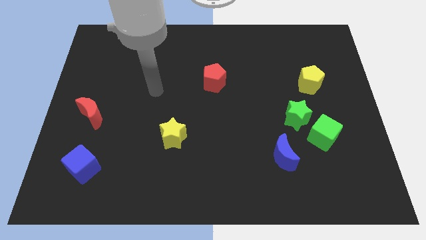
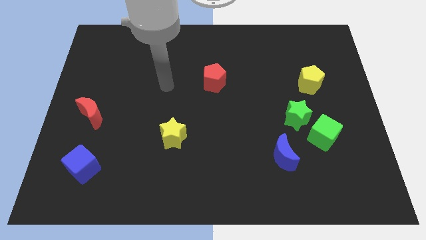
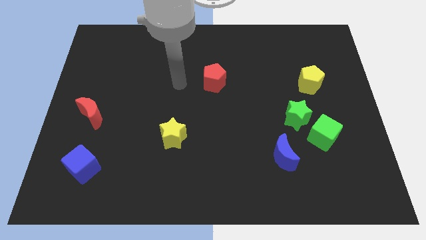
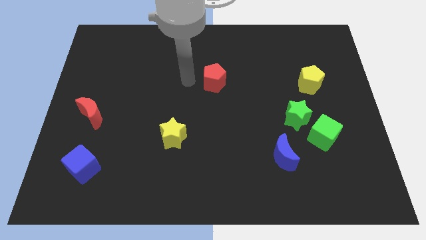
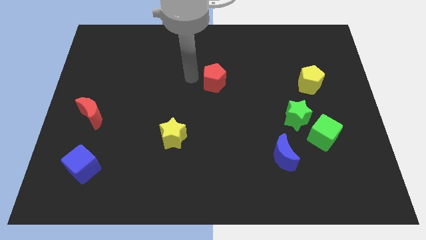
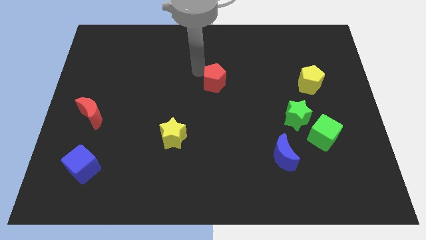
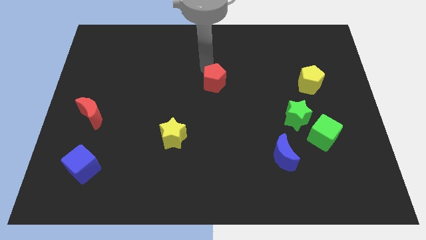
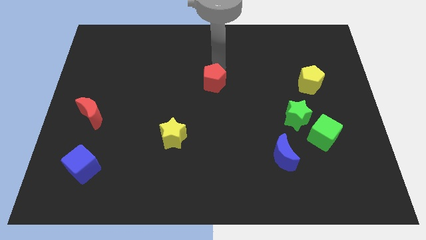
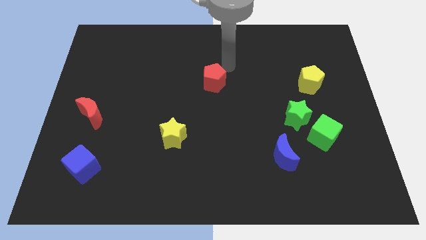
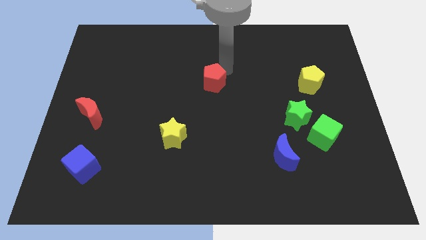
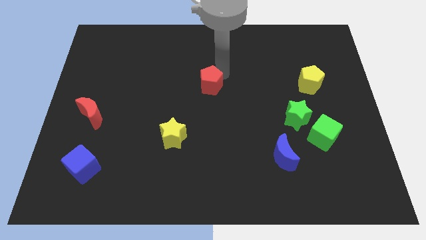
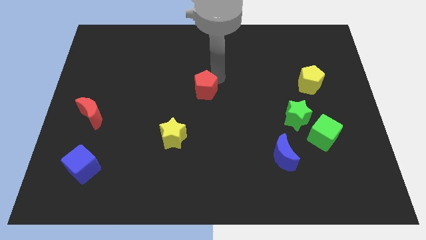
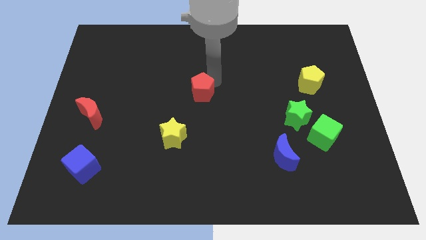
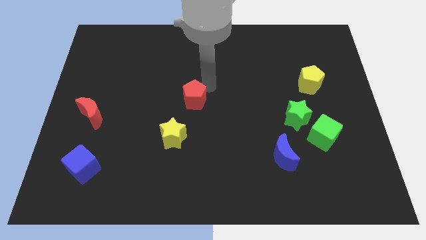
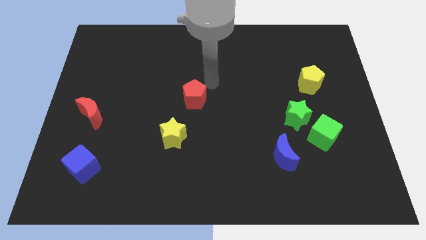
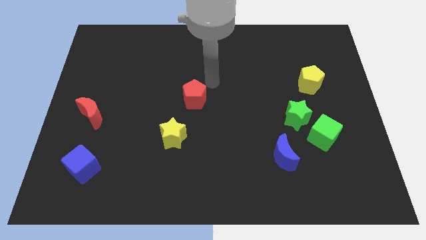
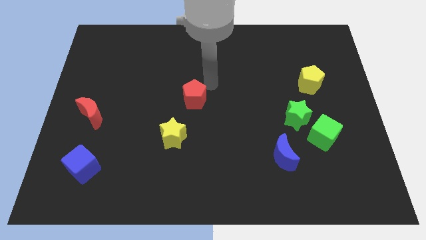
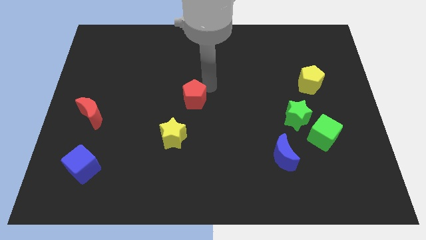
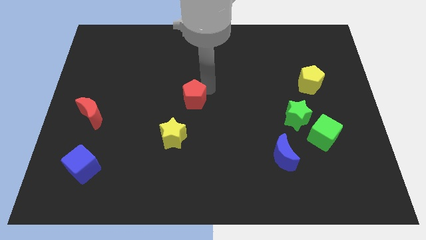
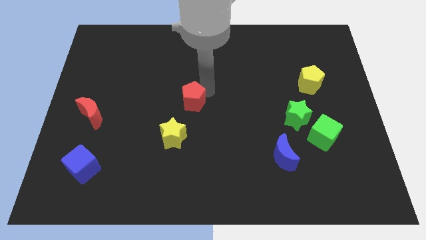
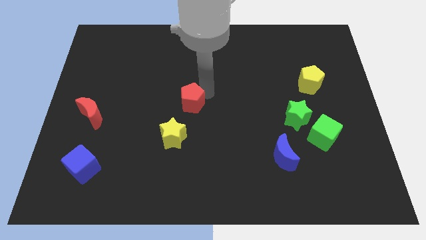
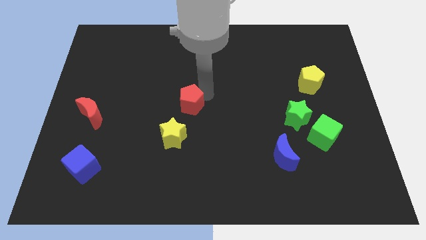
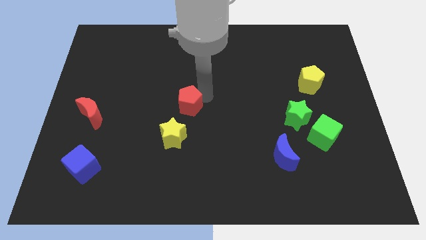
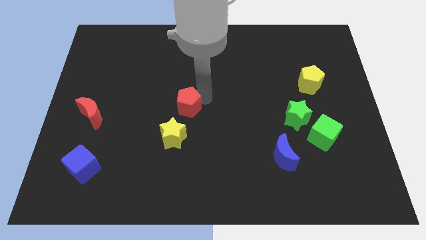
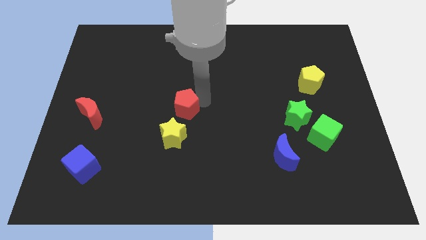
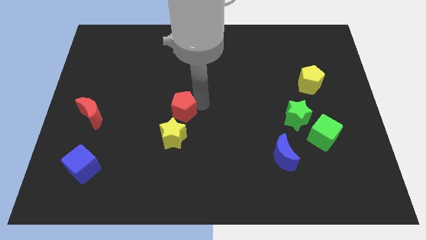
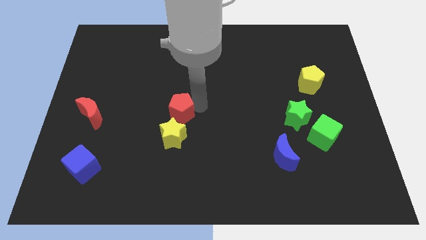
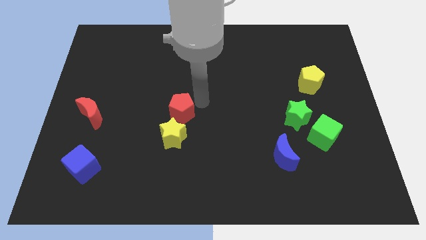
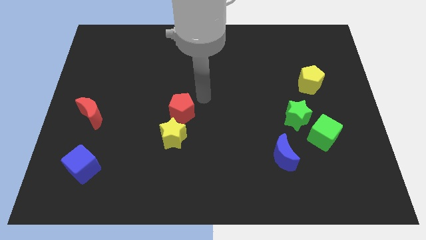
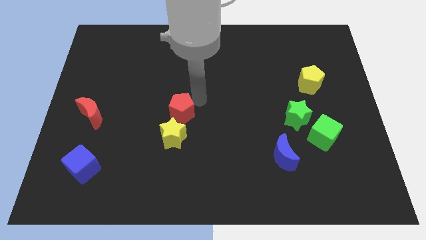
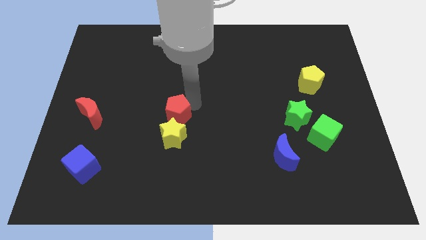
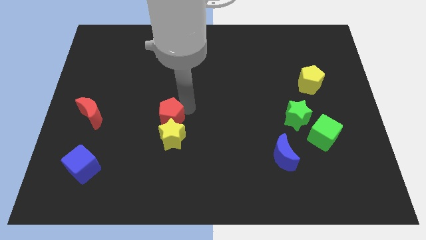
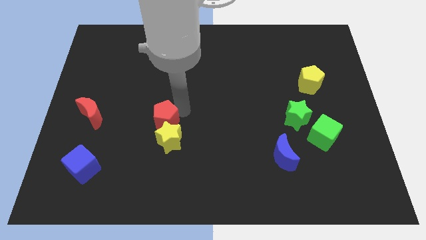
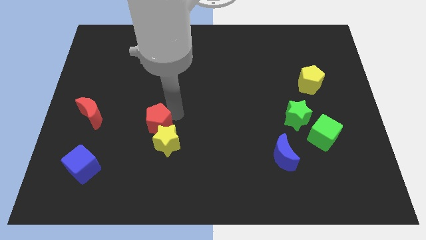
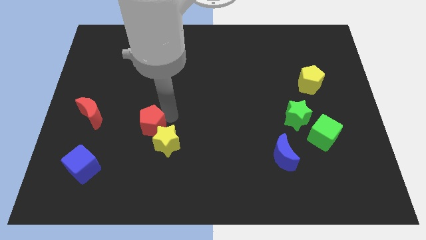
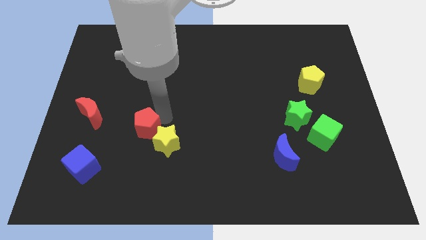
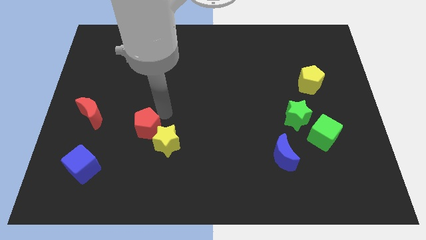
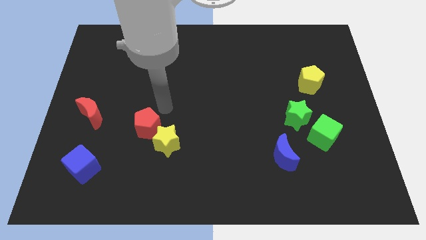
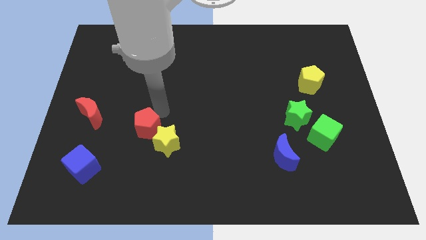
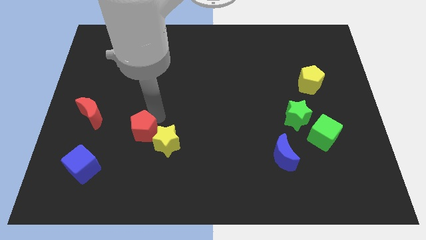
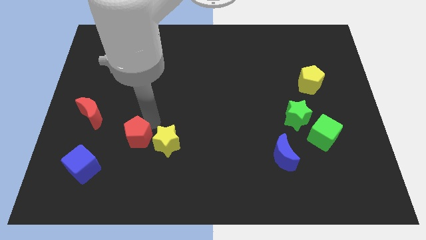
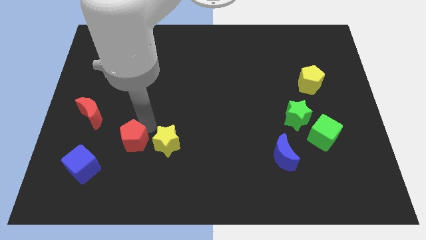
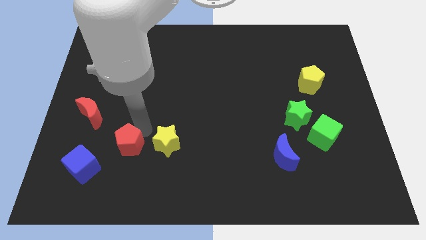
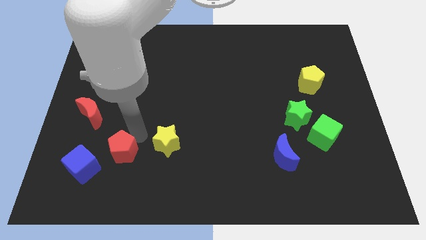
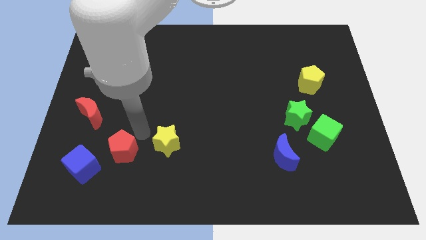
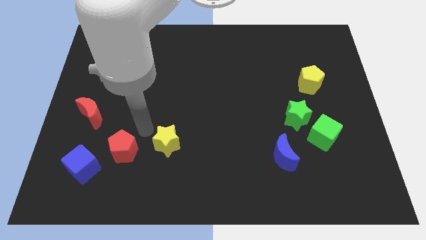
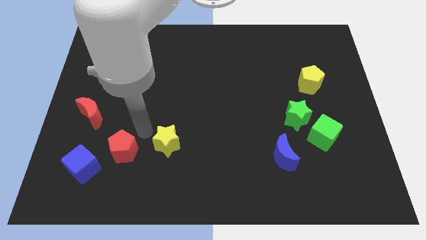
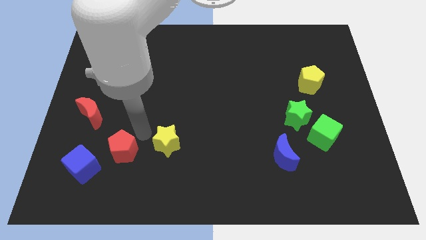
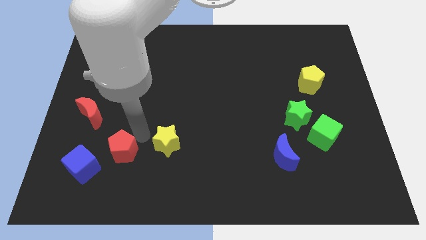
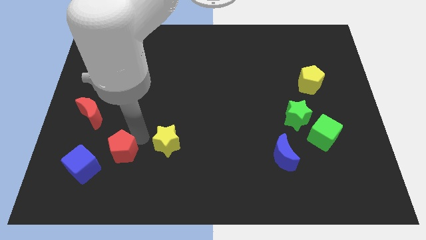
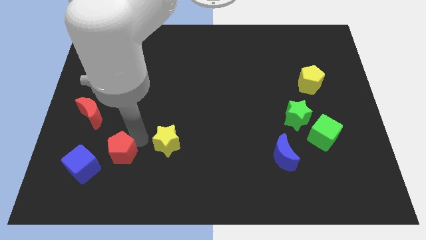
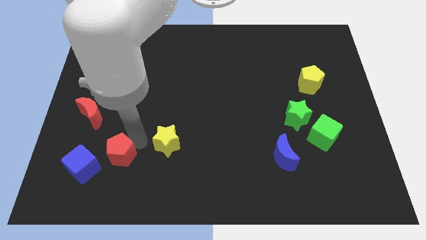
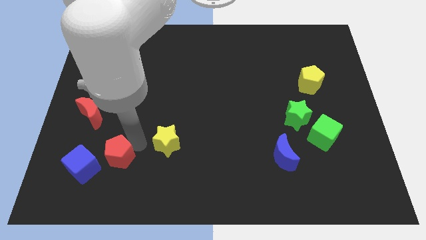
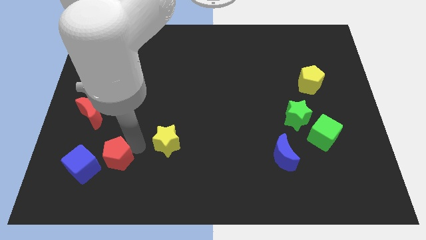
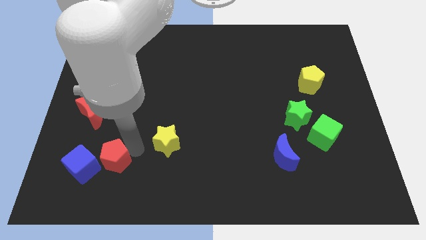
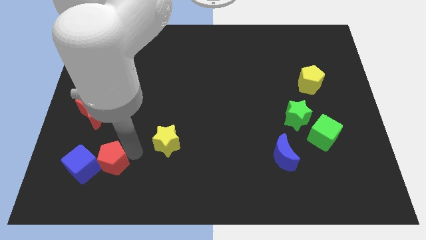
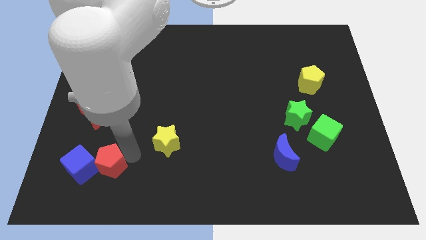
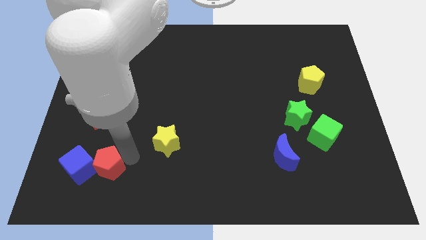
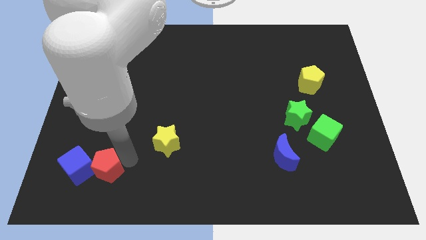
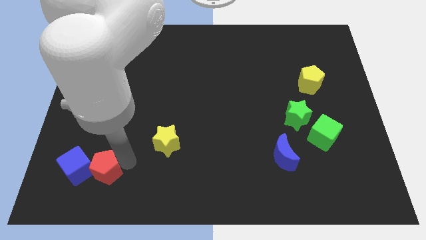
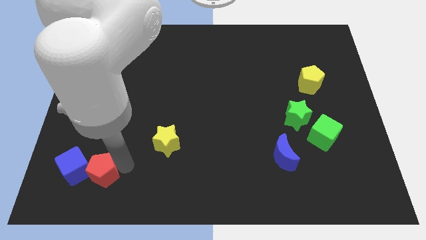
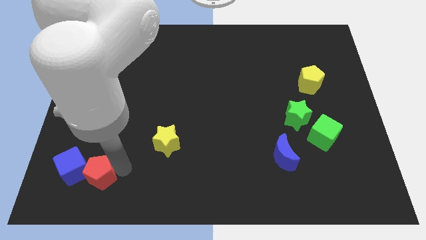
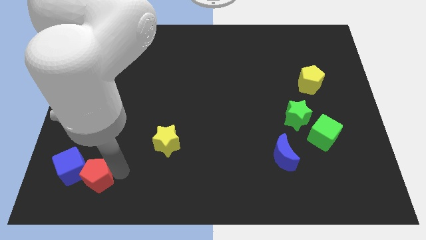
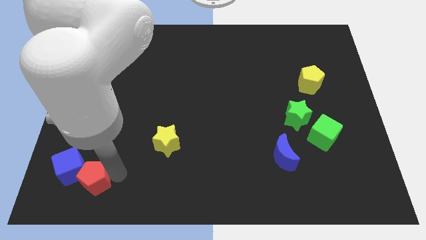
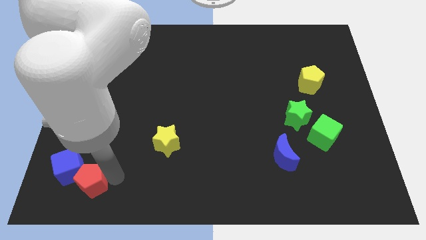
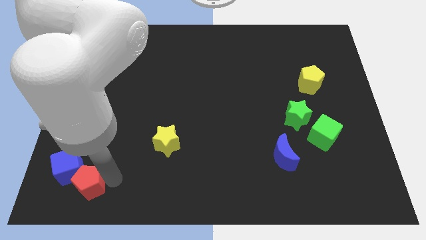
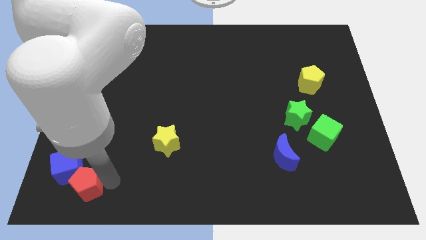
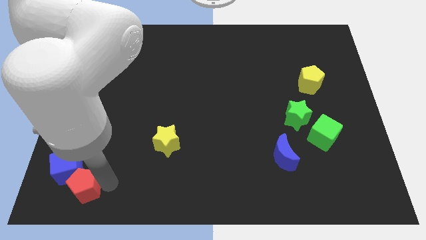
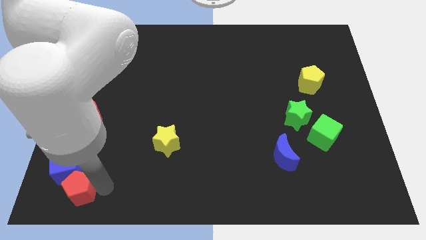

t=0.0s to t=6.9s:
slide the red pentagon to the lower left corner
